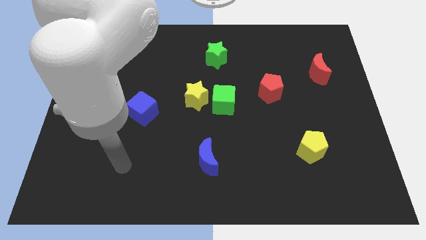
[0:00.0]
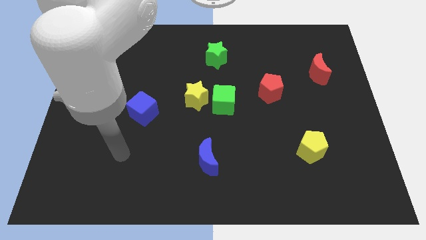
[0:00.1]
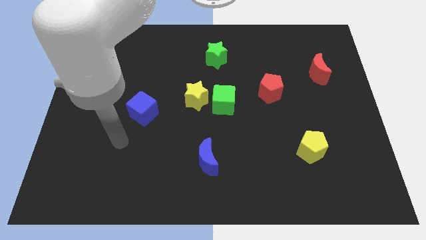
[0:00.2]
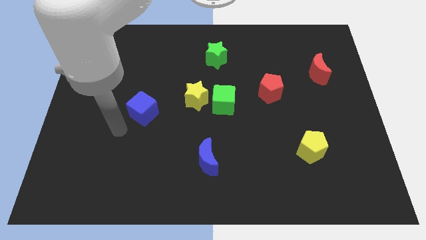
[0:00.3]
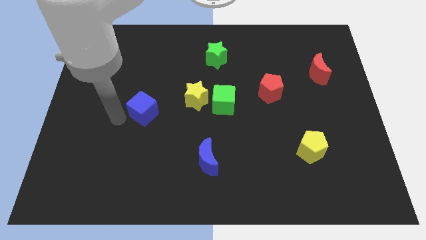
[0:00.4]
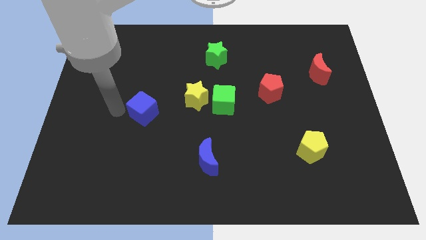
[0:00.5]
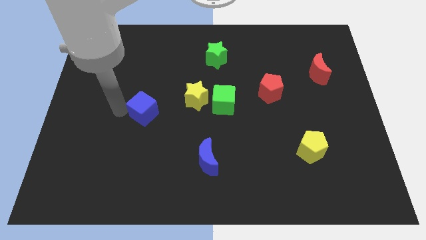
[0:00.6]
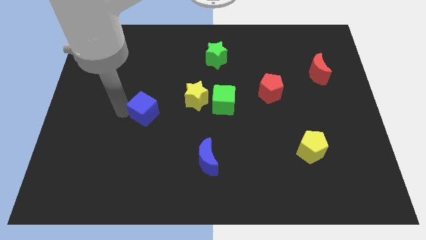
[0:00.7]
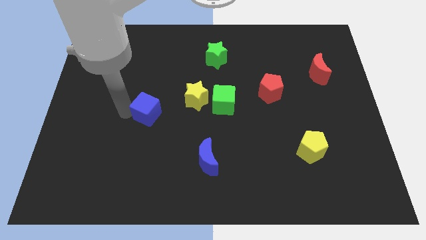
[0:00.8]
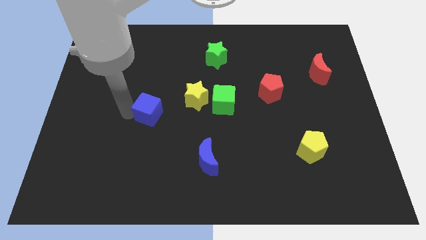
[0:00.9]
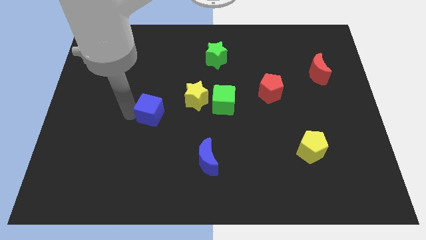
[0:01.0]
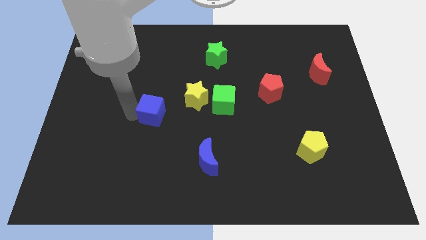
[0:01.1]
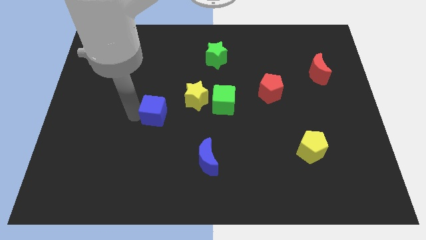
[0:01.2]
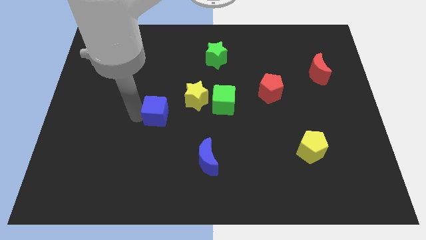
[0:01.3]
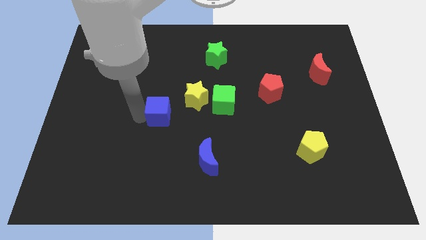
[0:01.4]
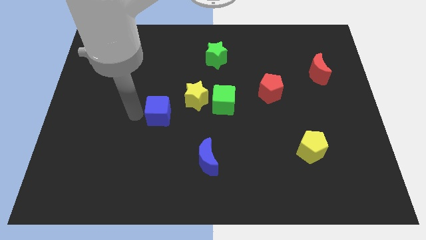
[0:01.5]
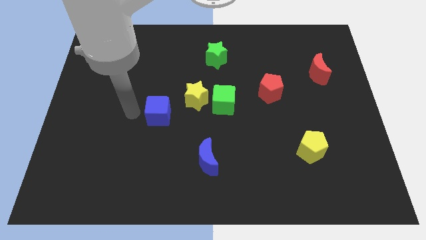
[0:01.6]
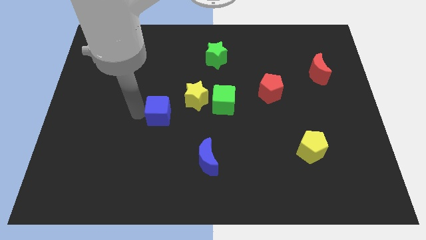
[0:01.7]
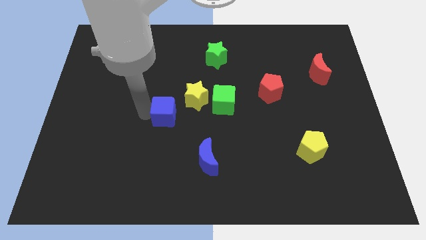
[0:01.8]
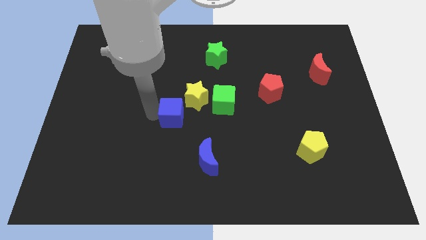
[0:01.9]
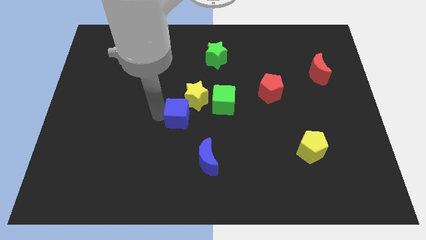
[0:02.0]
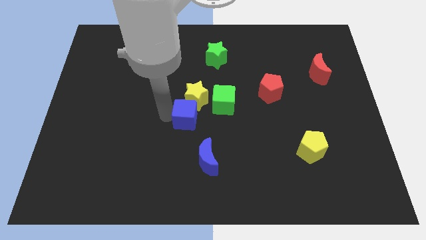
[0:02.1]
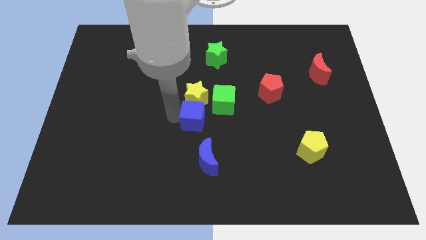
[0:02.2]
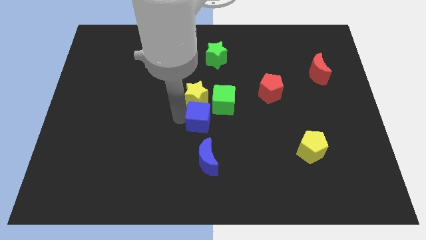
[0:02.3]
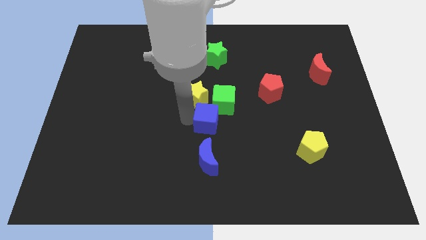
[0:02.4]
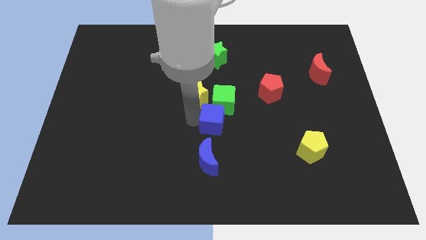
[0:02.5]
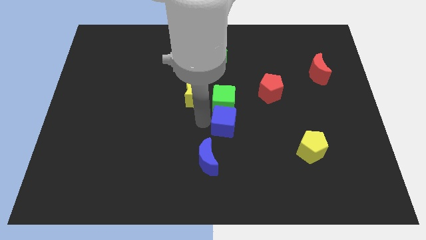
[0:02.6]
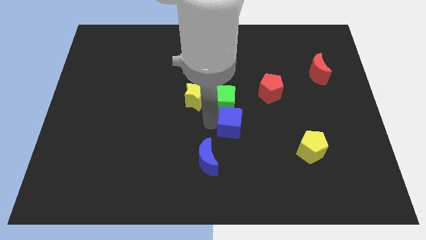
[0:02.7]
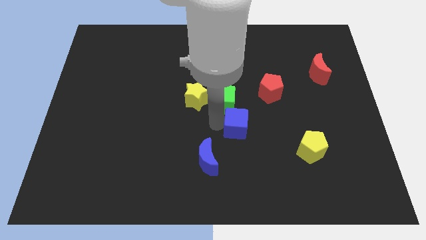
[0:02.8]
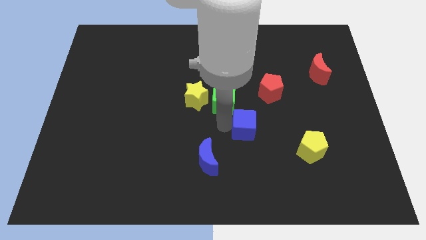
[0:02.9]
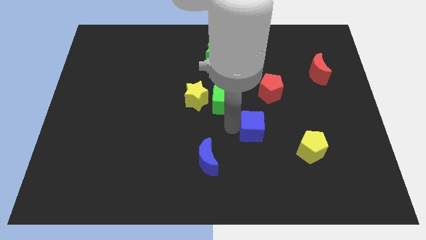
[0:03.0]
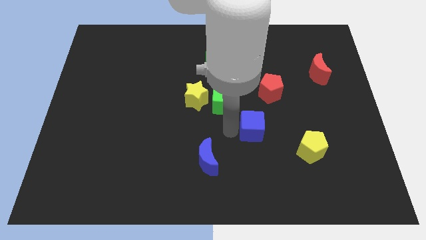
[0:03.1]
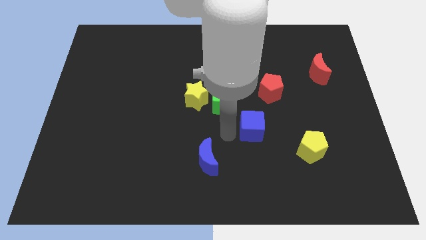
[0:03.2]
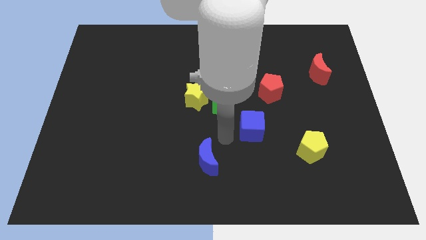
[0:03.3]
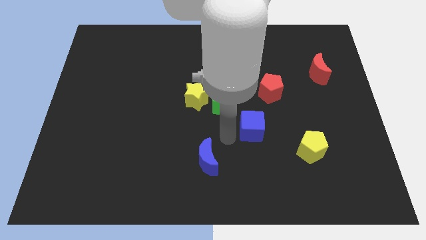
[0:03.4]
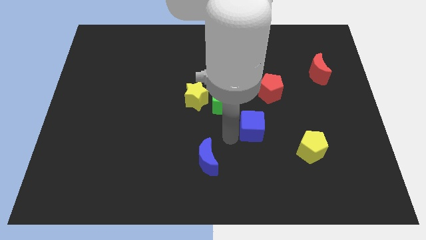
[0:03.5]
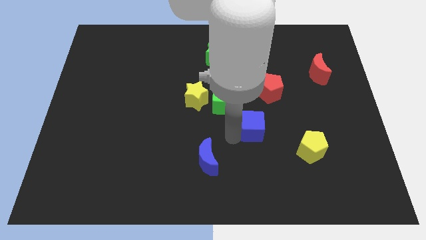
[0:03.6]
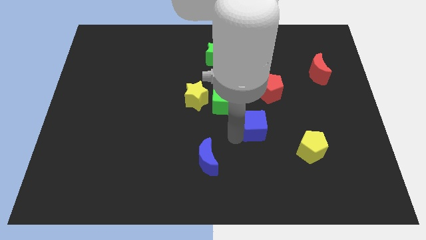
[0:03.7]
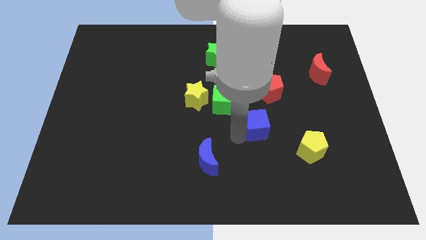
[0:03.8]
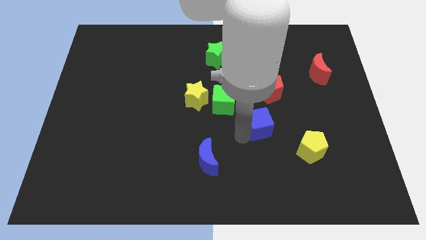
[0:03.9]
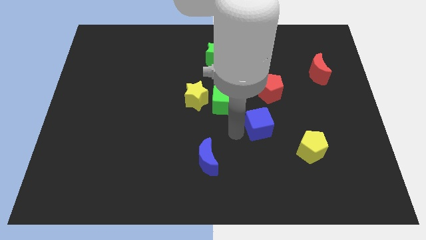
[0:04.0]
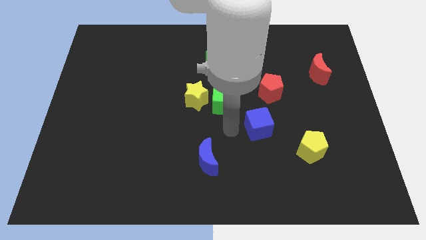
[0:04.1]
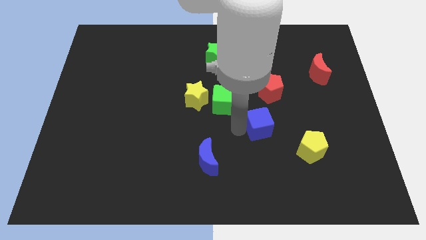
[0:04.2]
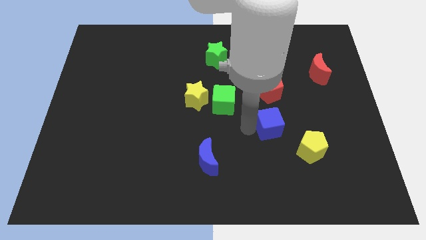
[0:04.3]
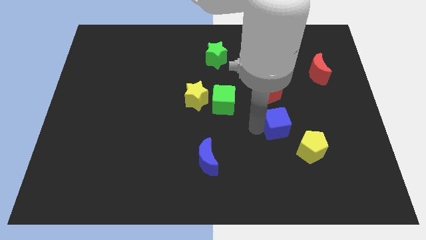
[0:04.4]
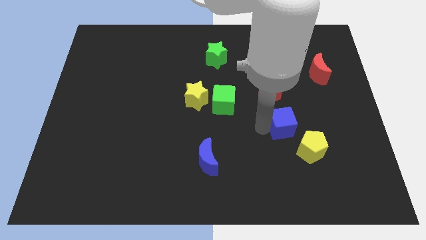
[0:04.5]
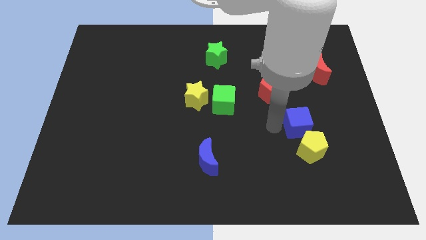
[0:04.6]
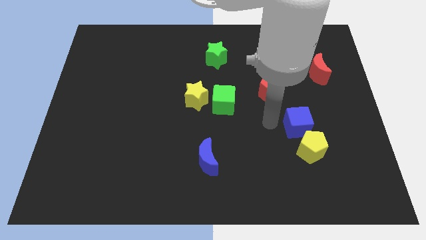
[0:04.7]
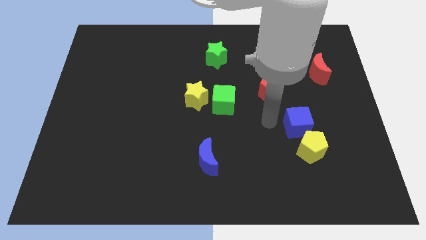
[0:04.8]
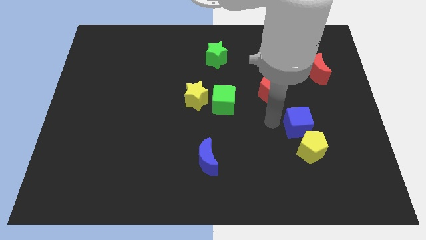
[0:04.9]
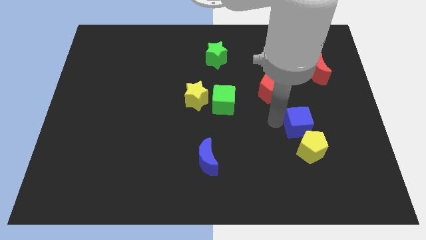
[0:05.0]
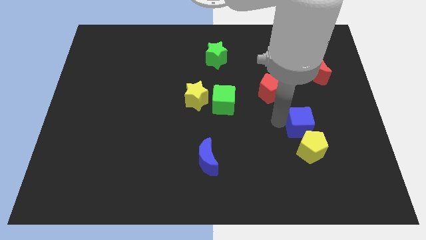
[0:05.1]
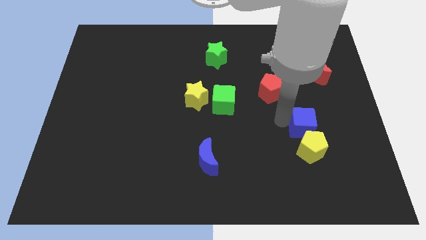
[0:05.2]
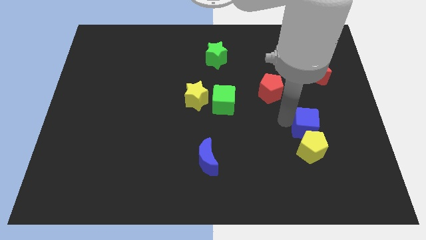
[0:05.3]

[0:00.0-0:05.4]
put the blue cube diagonally up and to the right of the yellow pentagon

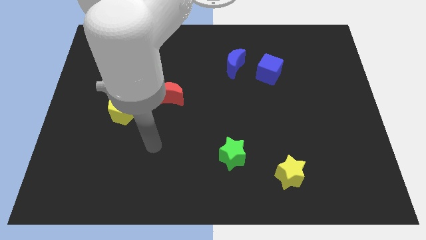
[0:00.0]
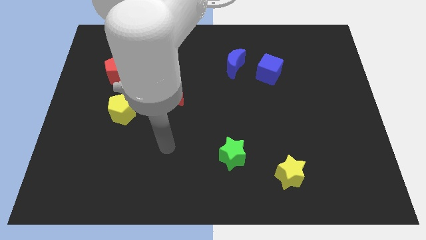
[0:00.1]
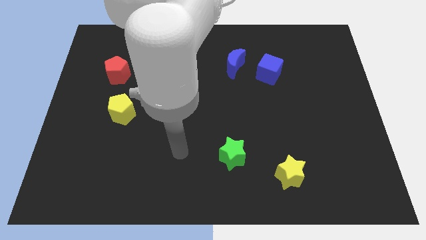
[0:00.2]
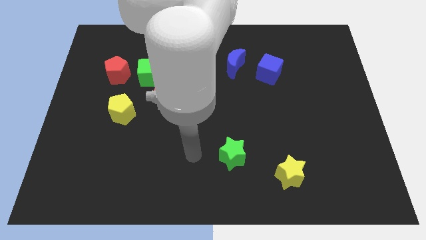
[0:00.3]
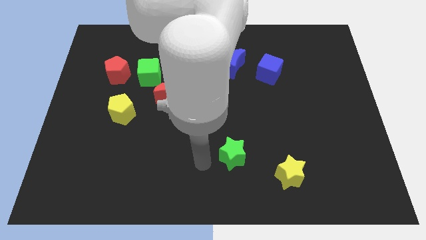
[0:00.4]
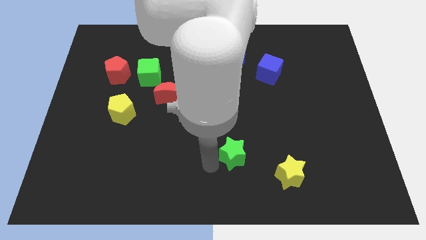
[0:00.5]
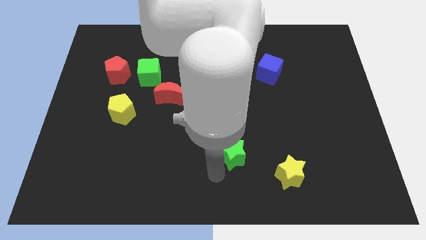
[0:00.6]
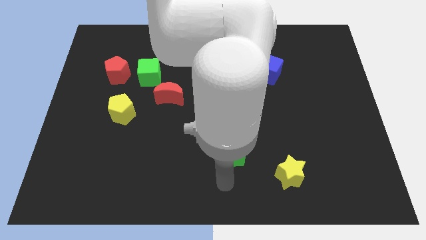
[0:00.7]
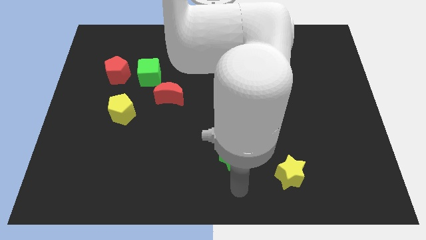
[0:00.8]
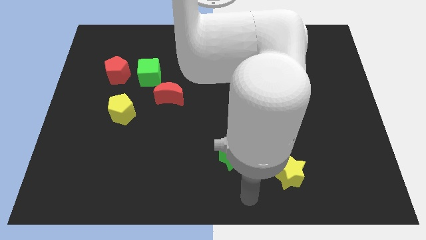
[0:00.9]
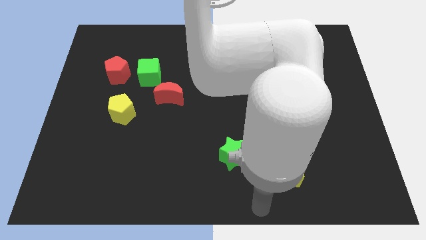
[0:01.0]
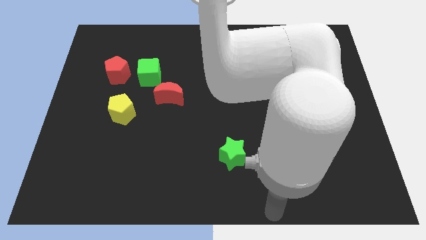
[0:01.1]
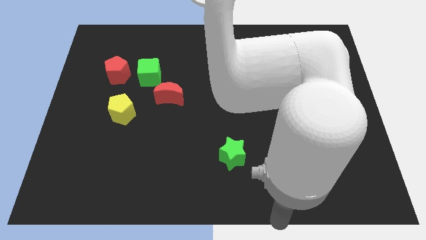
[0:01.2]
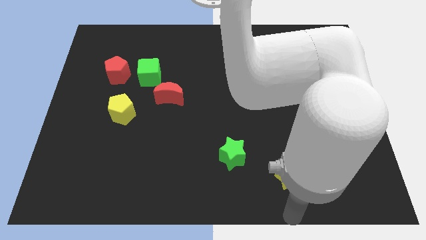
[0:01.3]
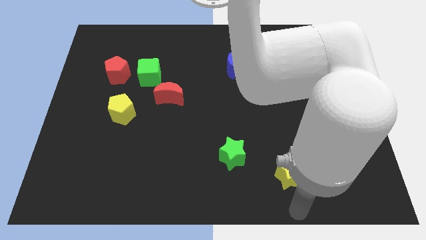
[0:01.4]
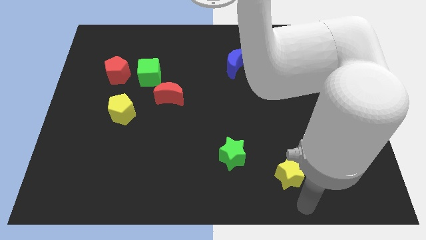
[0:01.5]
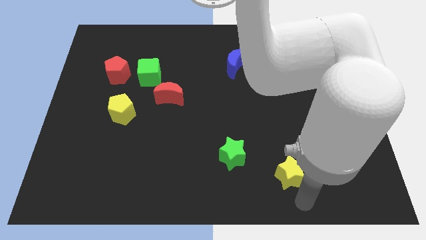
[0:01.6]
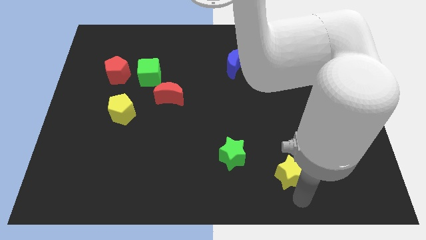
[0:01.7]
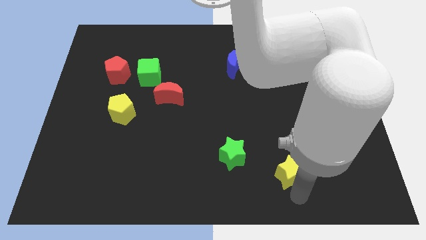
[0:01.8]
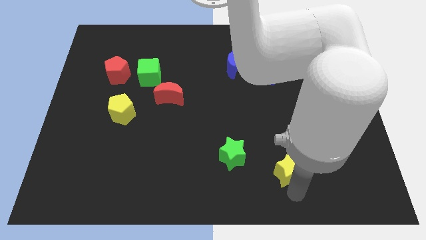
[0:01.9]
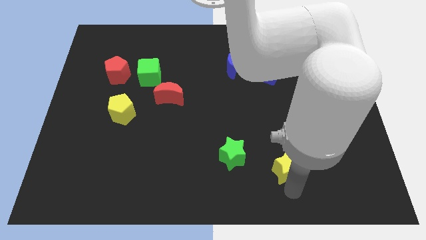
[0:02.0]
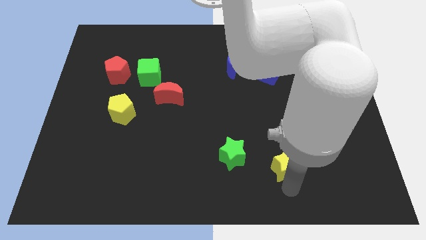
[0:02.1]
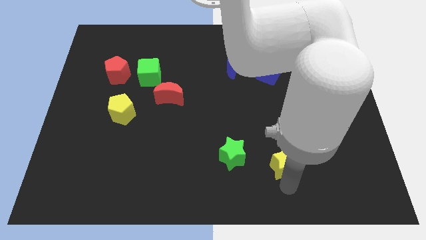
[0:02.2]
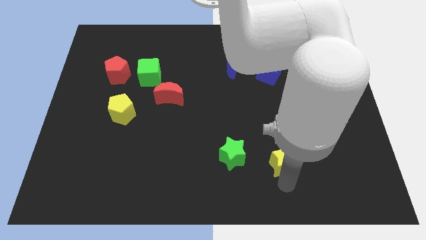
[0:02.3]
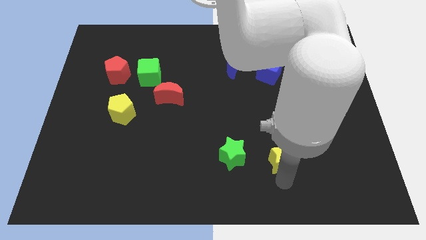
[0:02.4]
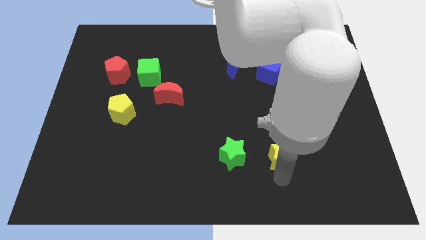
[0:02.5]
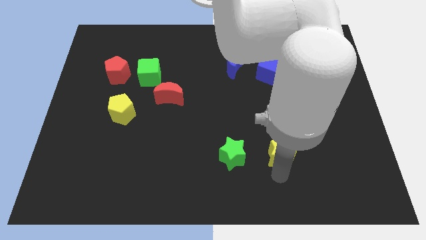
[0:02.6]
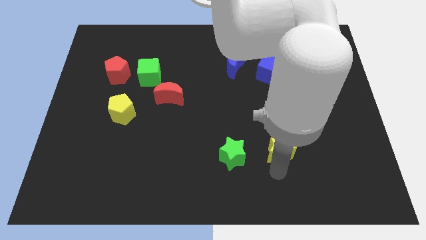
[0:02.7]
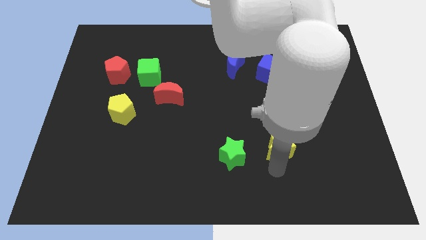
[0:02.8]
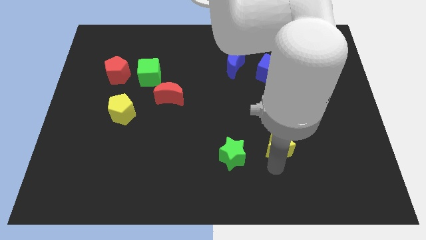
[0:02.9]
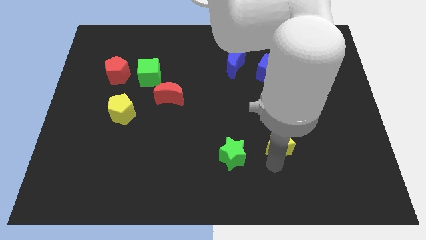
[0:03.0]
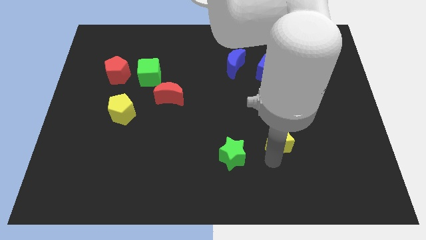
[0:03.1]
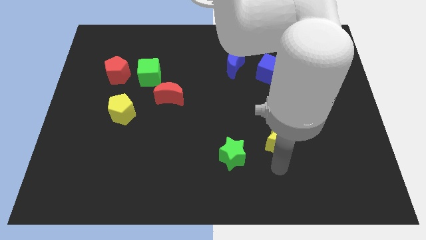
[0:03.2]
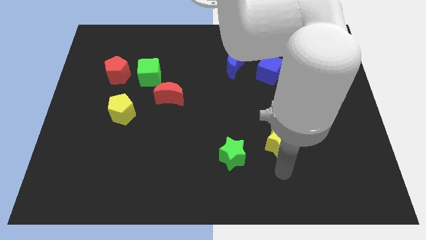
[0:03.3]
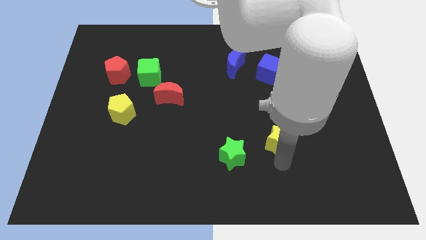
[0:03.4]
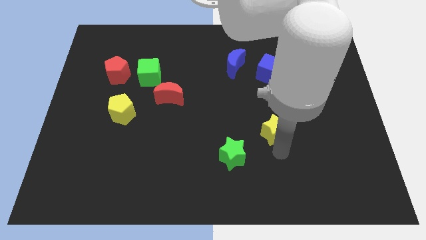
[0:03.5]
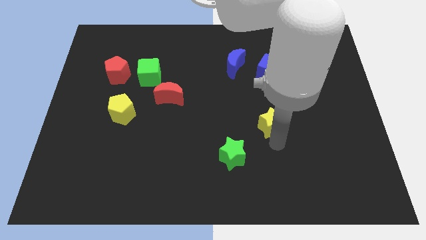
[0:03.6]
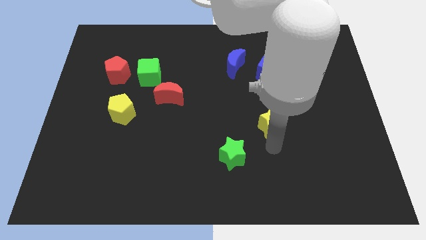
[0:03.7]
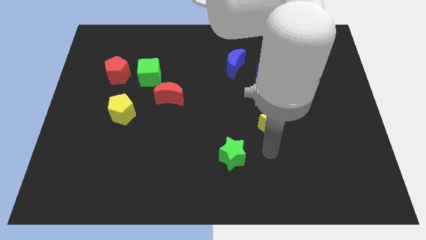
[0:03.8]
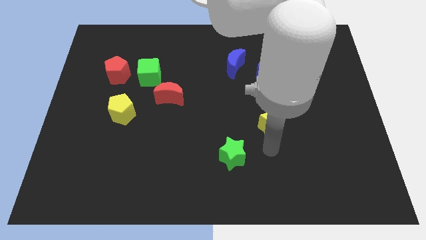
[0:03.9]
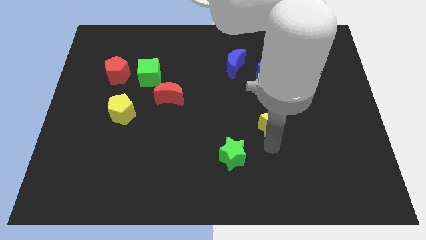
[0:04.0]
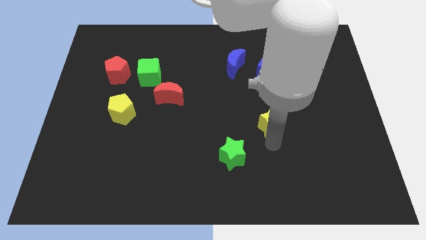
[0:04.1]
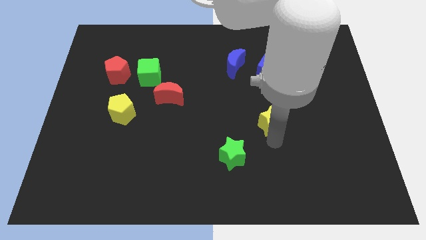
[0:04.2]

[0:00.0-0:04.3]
put the yellow star below the blue cube
